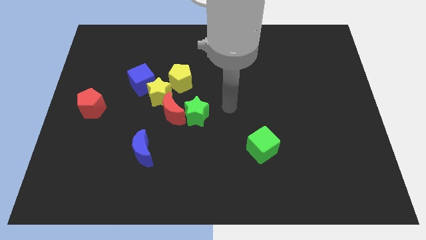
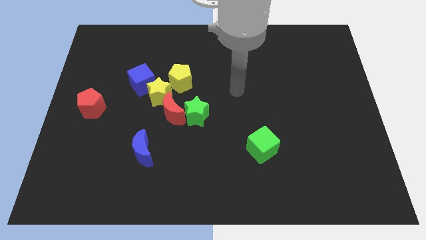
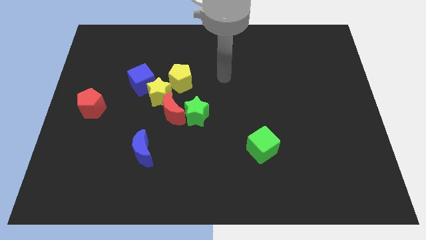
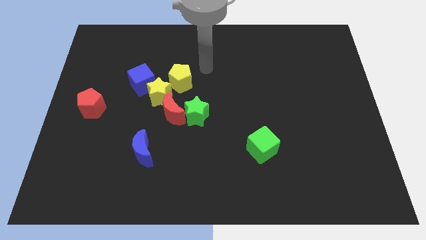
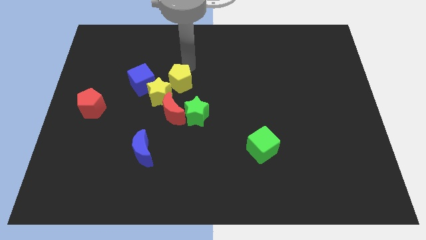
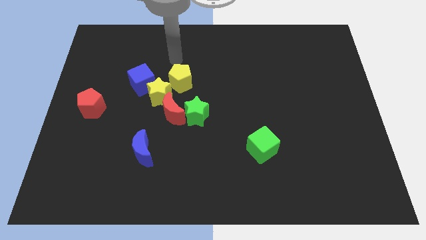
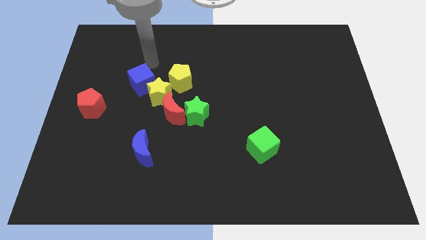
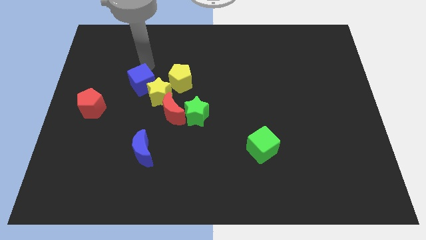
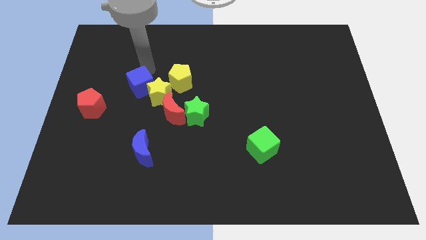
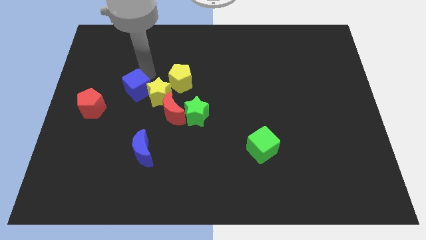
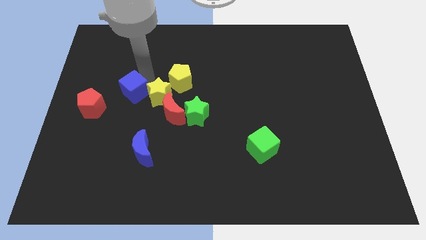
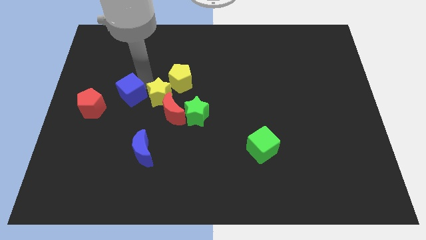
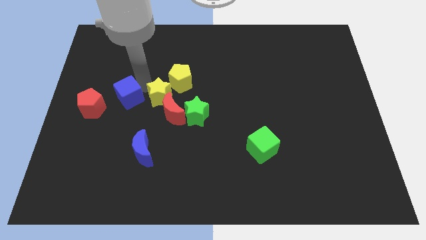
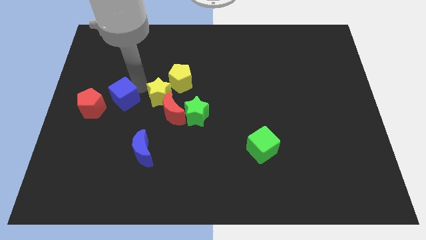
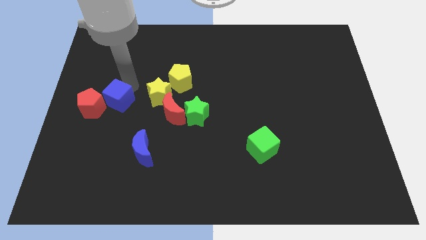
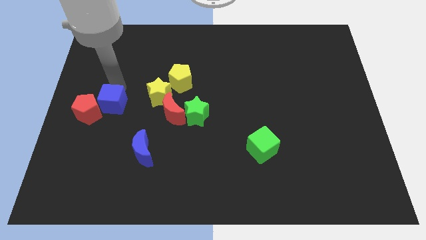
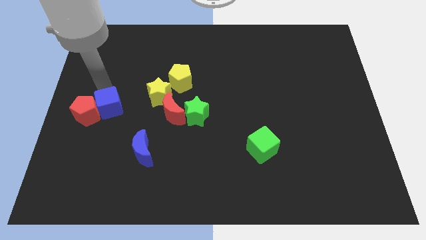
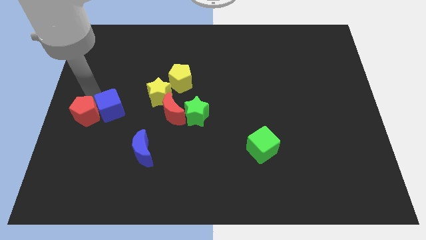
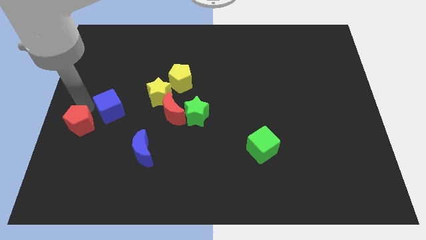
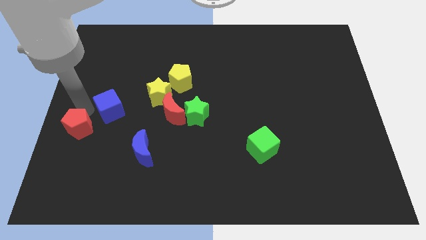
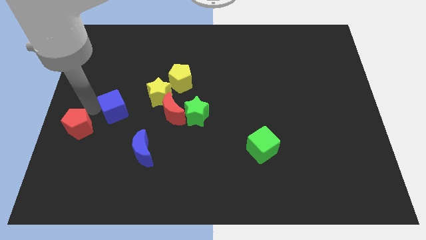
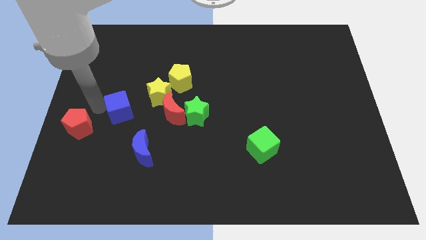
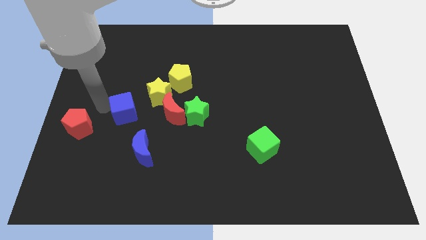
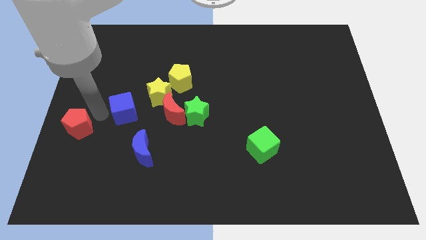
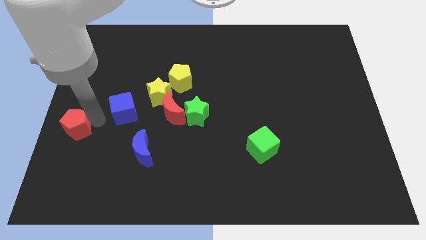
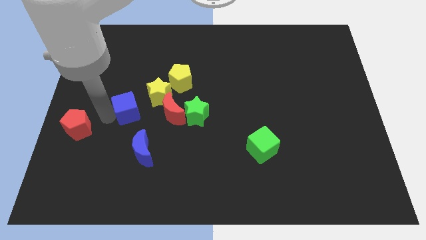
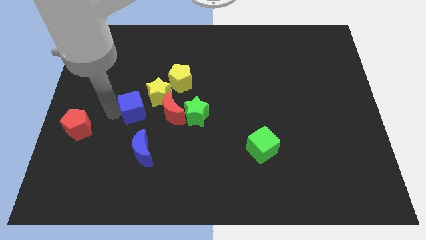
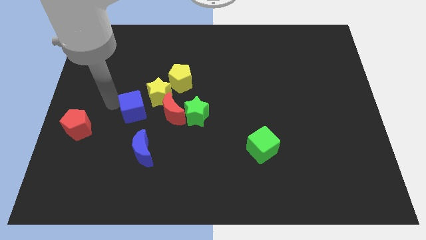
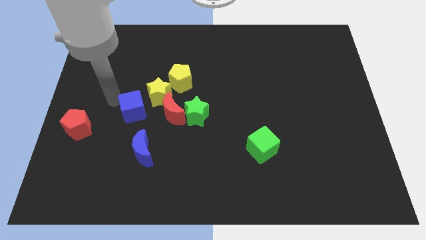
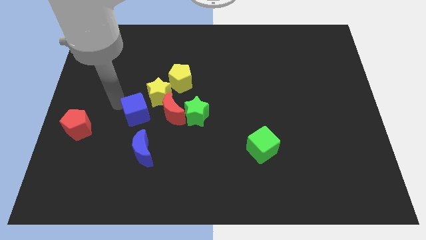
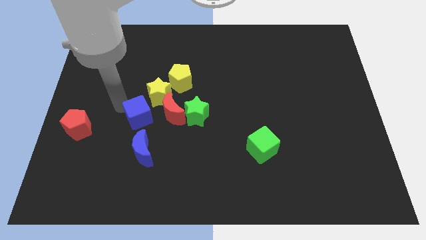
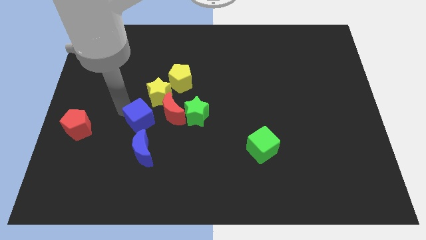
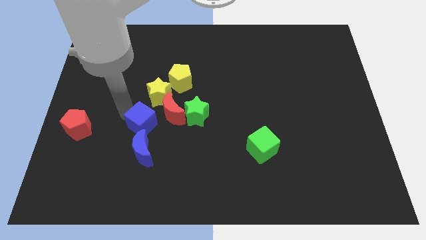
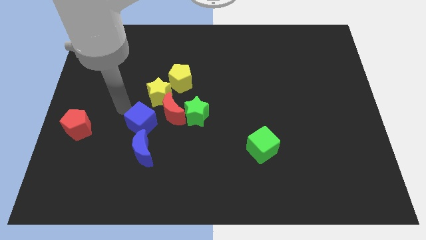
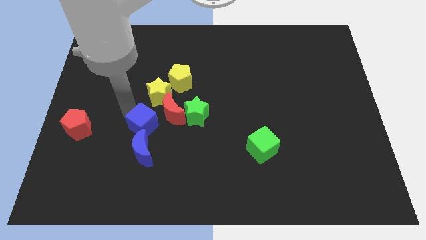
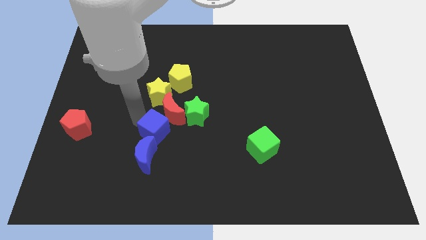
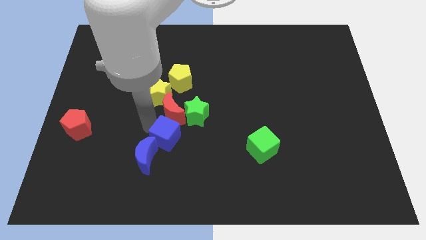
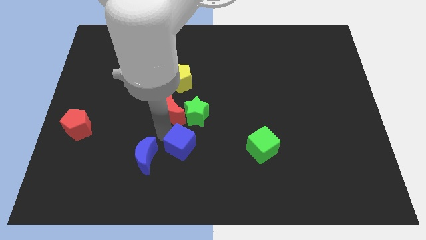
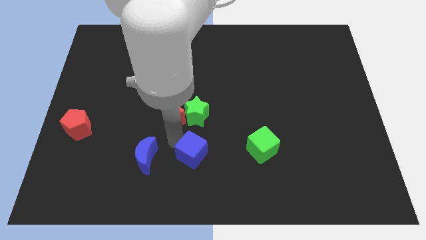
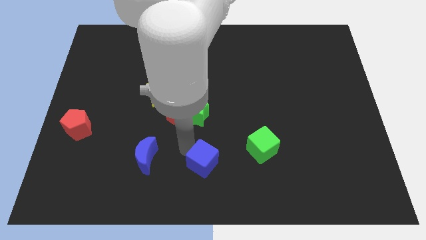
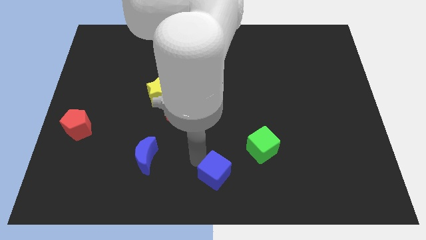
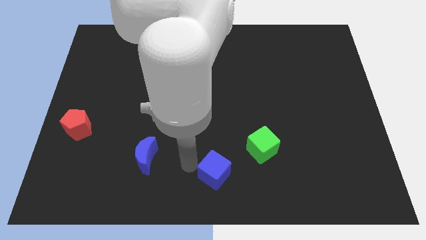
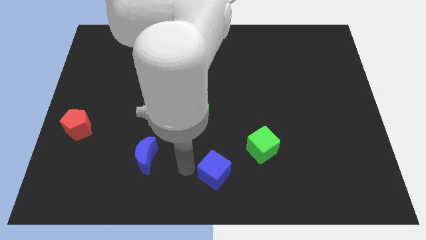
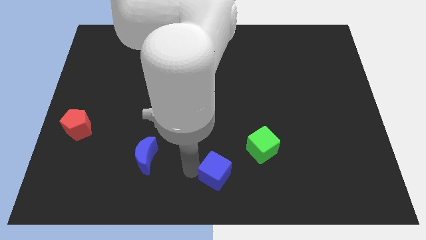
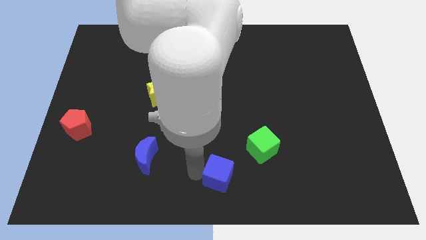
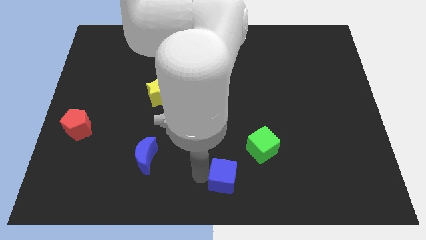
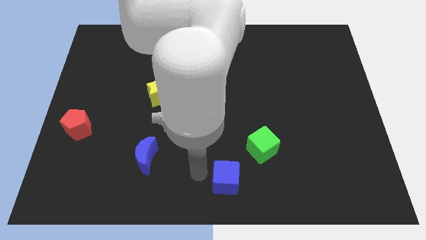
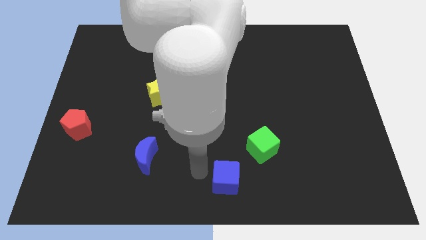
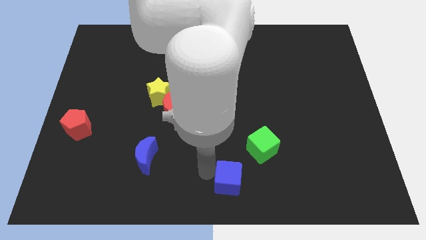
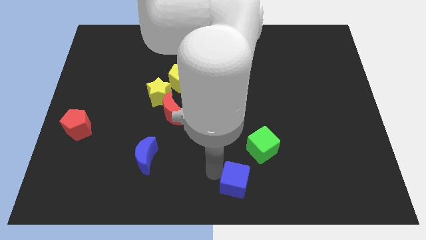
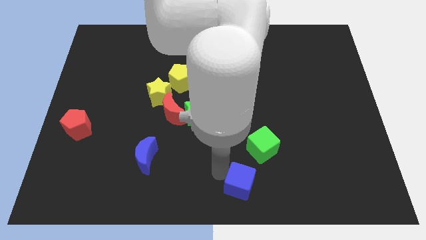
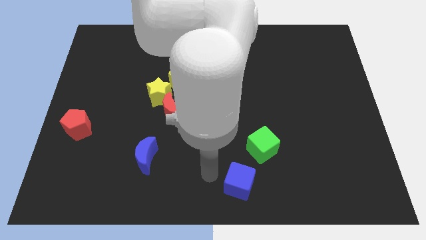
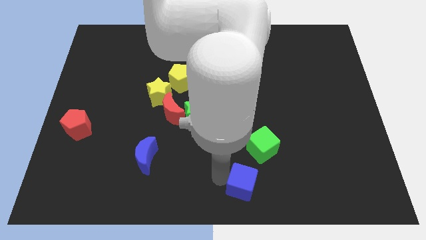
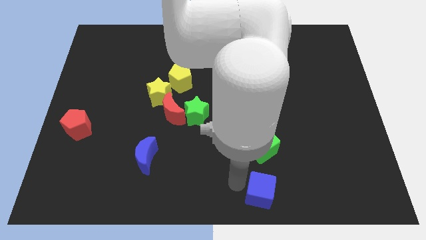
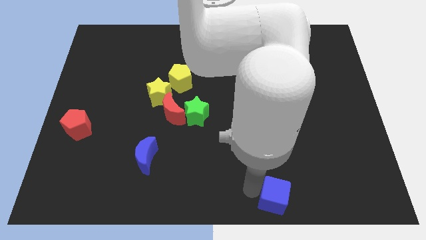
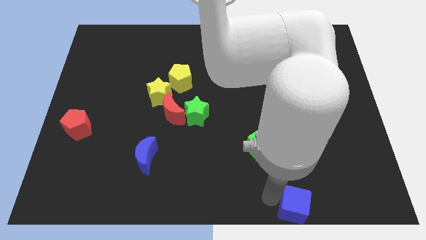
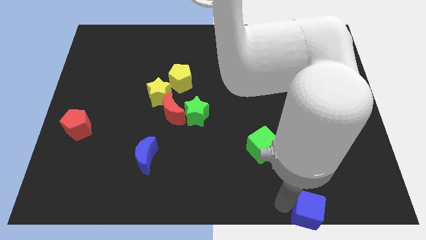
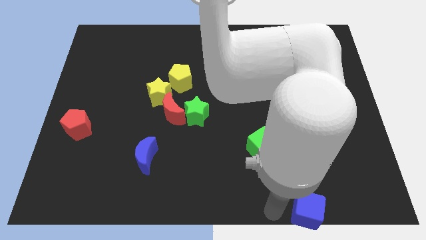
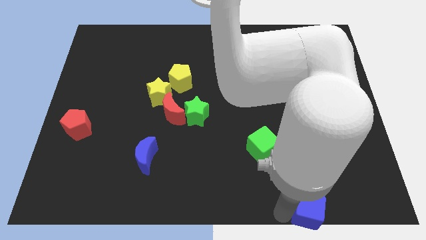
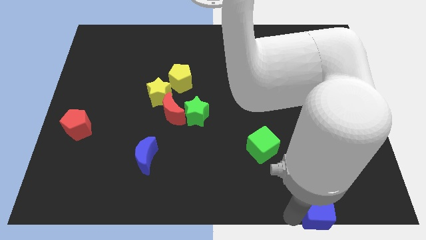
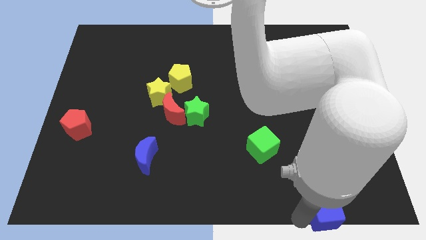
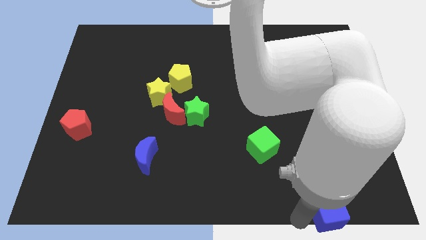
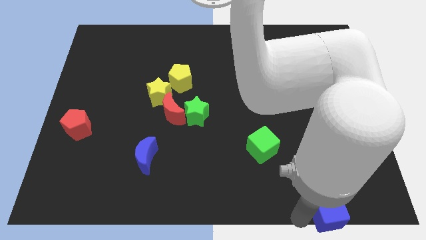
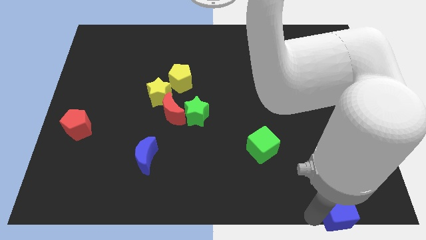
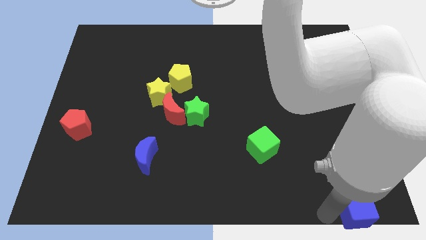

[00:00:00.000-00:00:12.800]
push the blue cube to the bottom right corner
